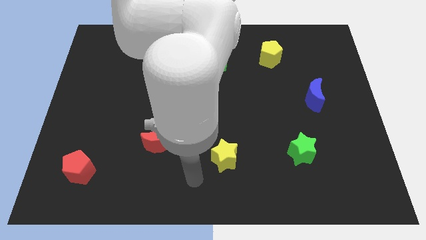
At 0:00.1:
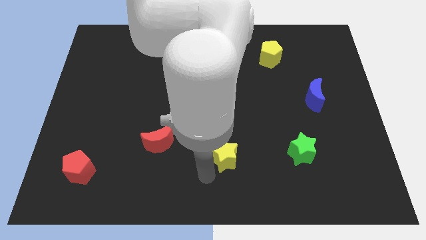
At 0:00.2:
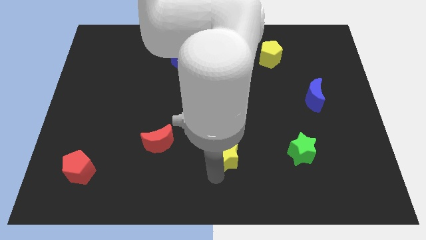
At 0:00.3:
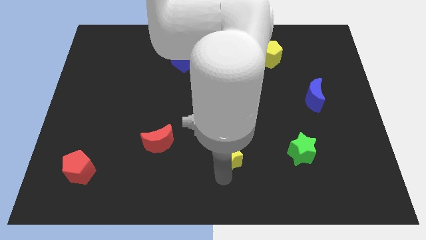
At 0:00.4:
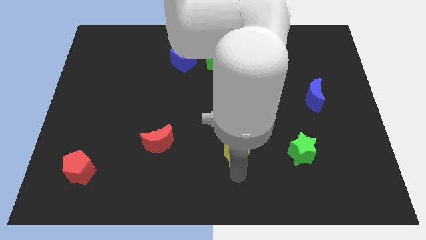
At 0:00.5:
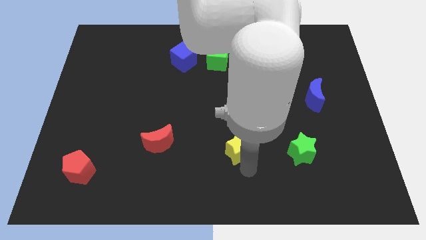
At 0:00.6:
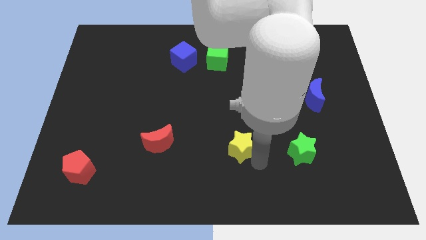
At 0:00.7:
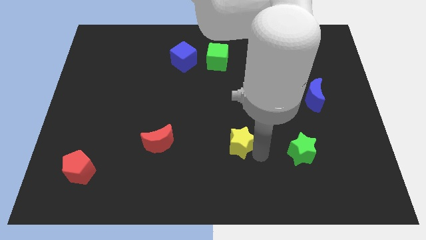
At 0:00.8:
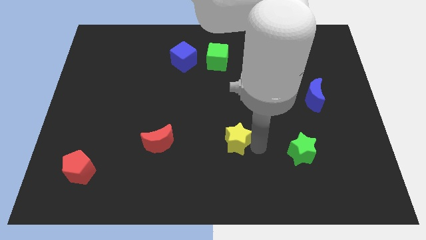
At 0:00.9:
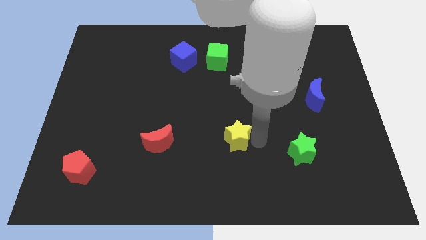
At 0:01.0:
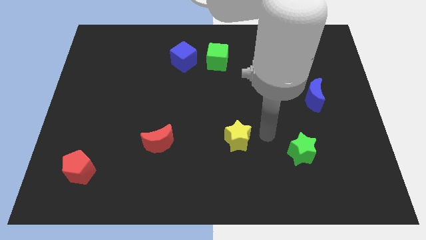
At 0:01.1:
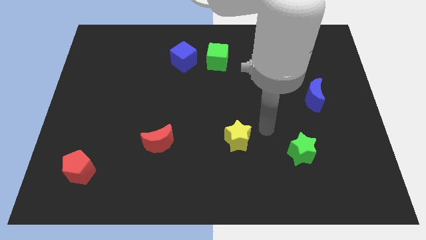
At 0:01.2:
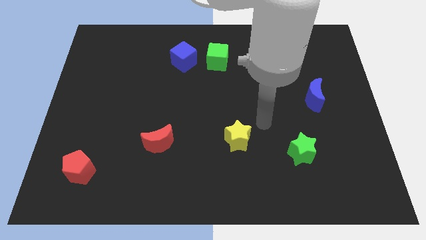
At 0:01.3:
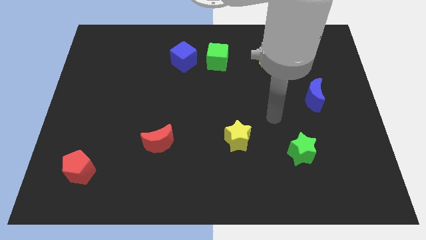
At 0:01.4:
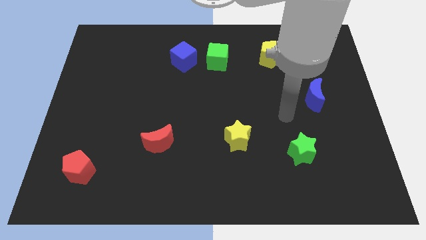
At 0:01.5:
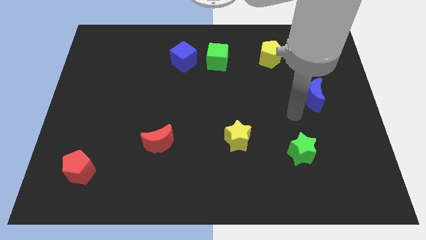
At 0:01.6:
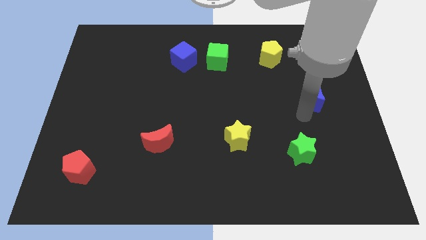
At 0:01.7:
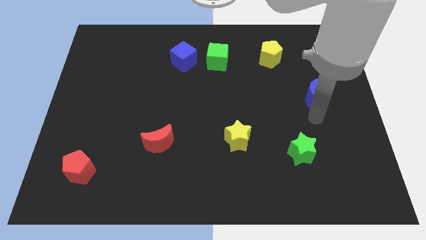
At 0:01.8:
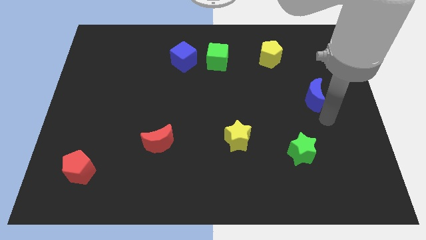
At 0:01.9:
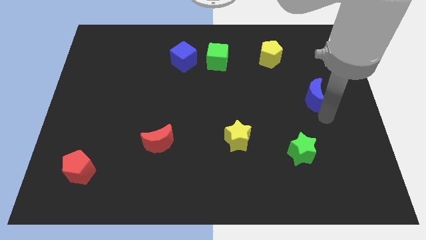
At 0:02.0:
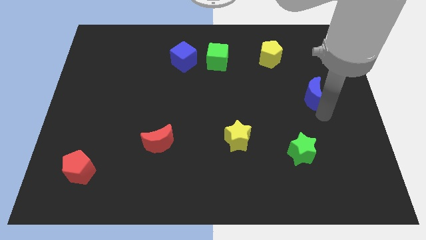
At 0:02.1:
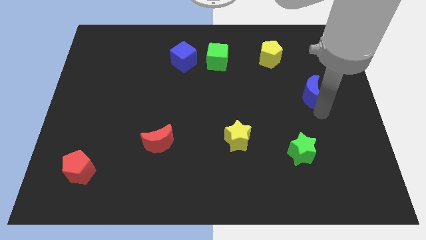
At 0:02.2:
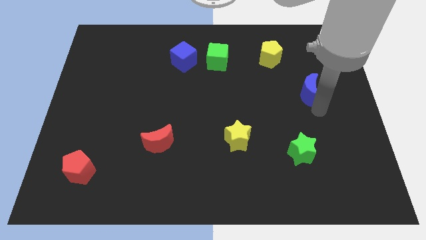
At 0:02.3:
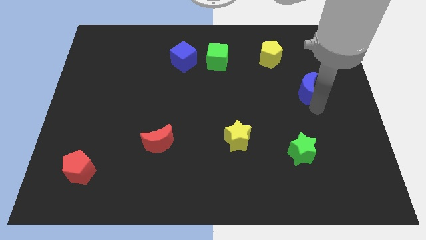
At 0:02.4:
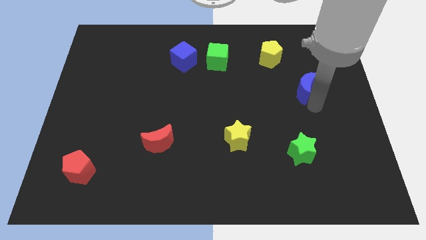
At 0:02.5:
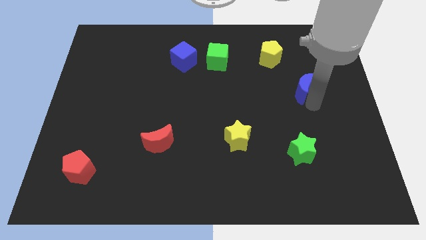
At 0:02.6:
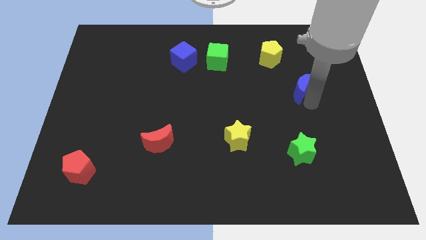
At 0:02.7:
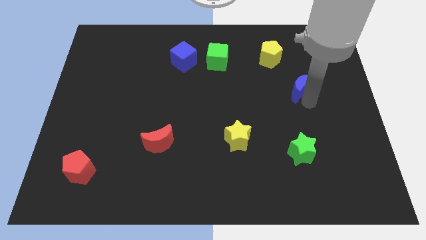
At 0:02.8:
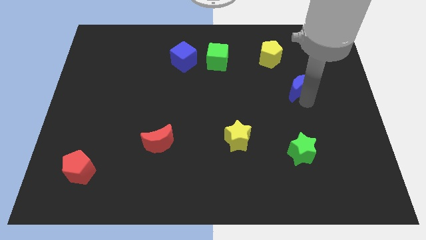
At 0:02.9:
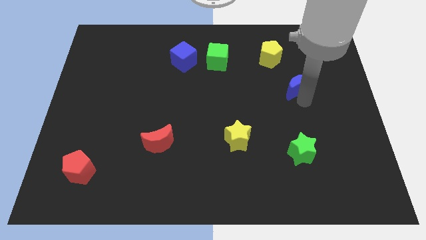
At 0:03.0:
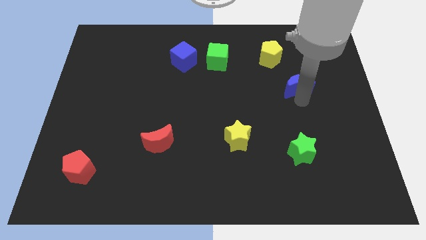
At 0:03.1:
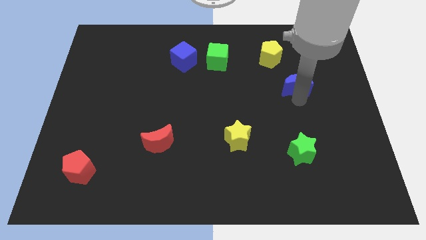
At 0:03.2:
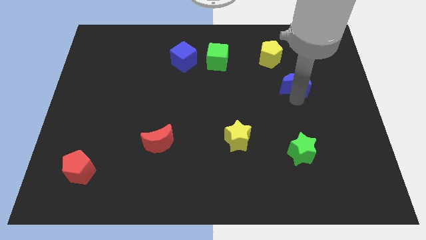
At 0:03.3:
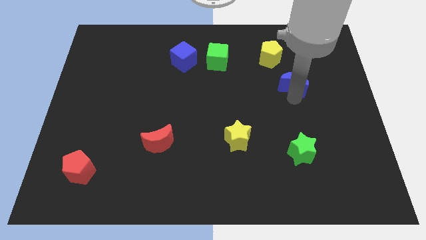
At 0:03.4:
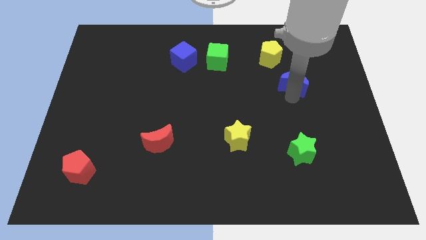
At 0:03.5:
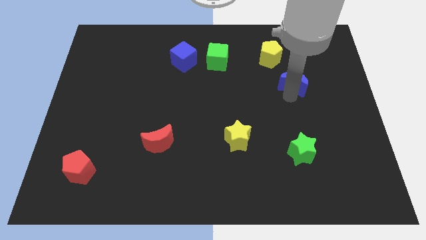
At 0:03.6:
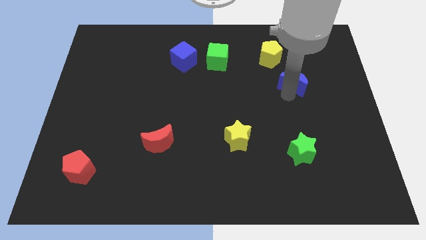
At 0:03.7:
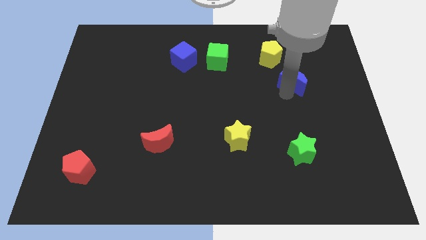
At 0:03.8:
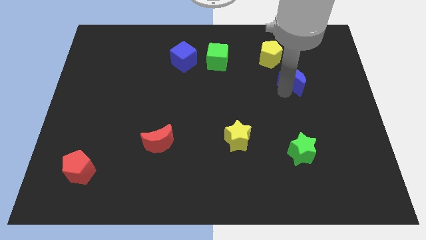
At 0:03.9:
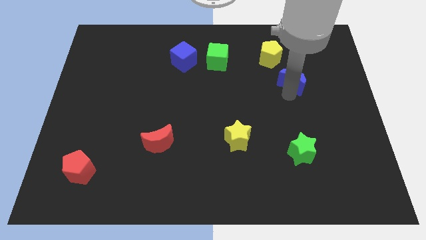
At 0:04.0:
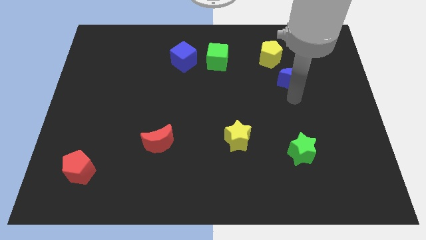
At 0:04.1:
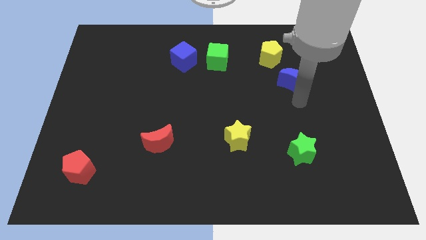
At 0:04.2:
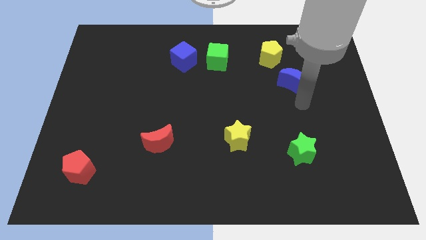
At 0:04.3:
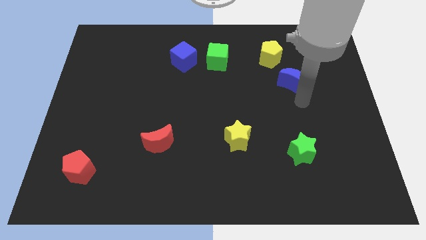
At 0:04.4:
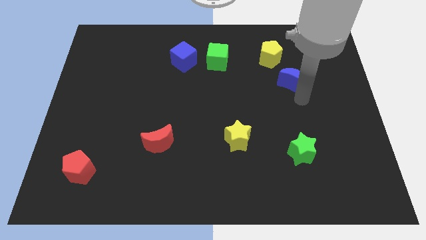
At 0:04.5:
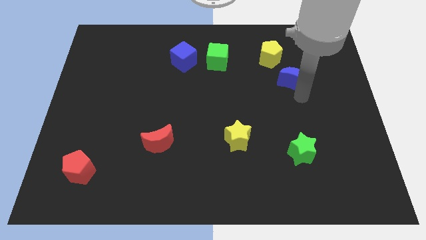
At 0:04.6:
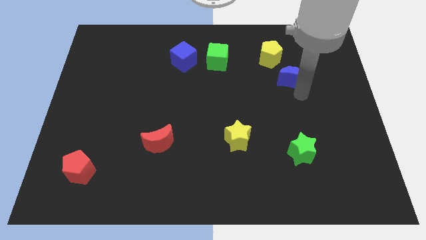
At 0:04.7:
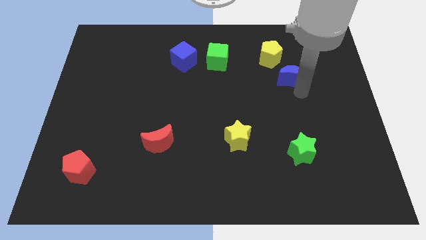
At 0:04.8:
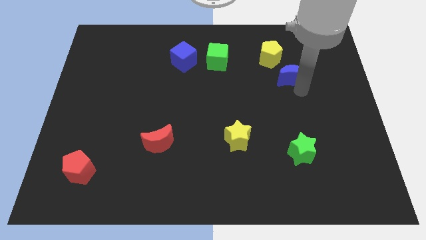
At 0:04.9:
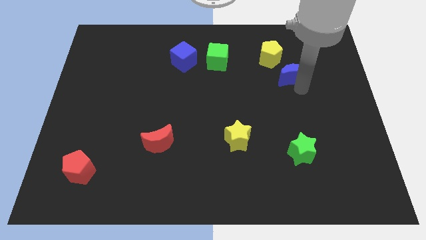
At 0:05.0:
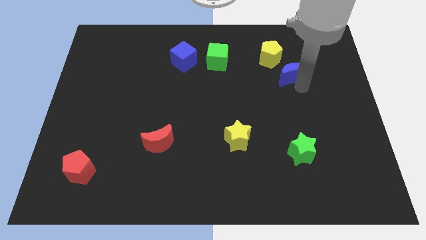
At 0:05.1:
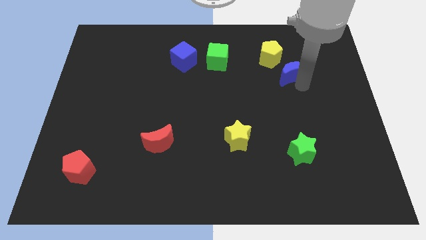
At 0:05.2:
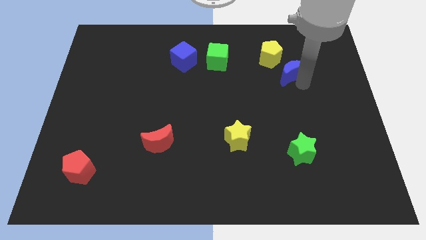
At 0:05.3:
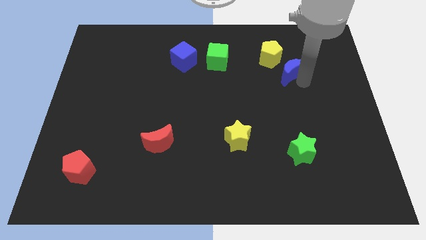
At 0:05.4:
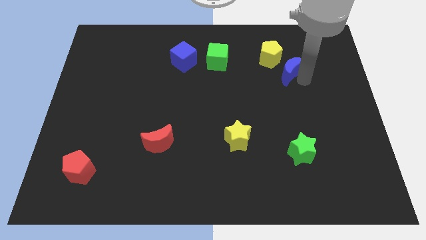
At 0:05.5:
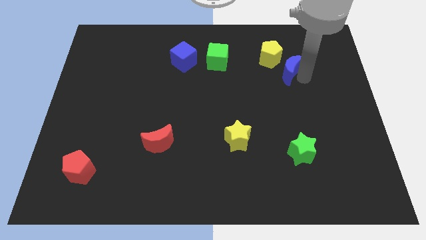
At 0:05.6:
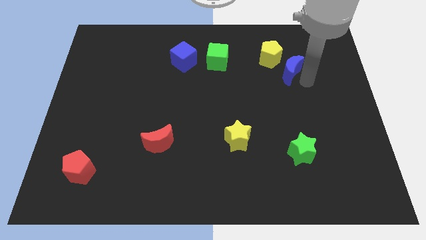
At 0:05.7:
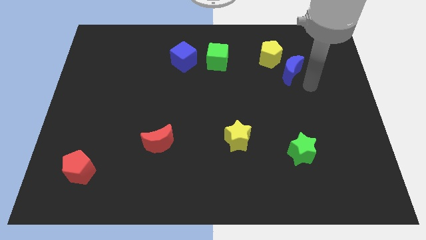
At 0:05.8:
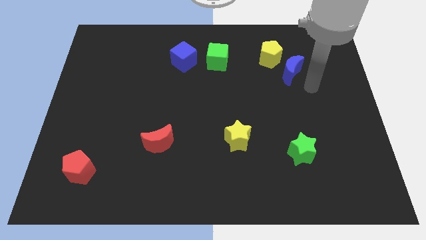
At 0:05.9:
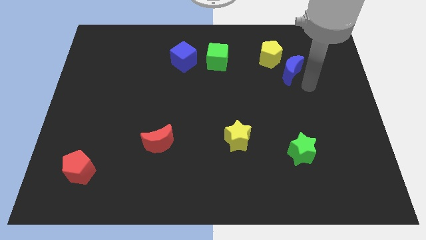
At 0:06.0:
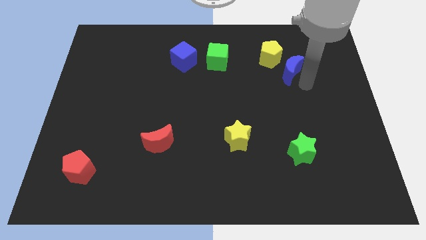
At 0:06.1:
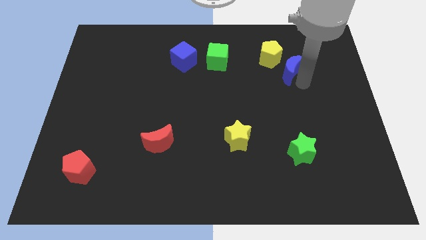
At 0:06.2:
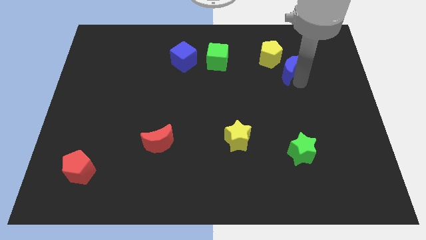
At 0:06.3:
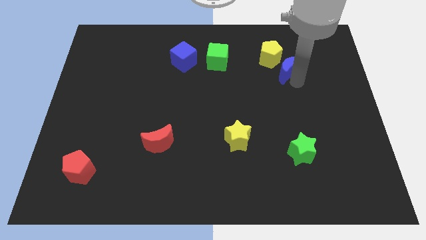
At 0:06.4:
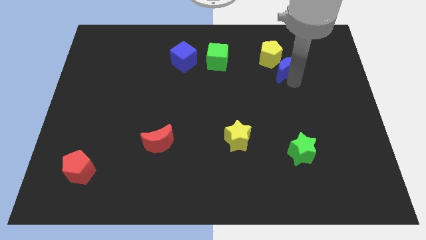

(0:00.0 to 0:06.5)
push the blue moon towards the yellow pentagon
